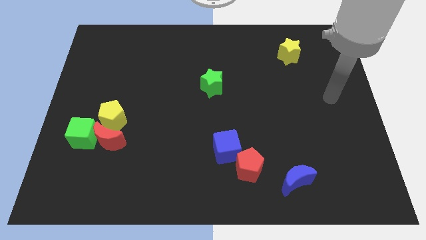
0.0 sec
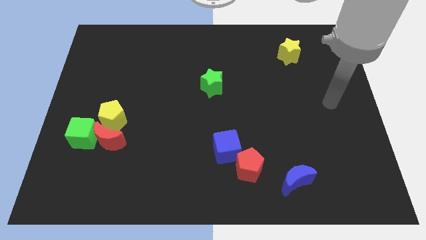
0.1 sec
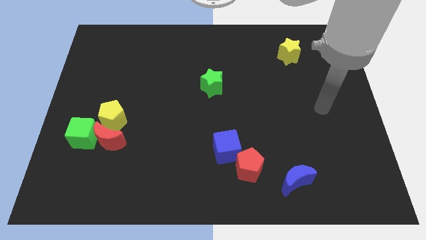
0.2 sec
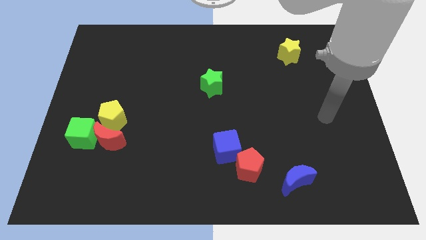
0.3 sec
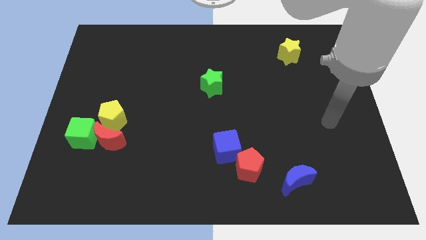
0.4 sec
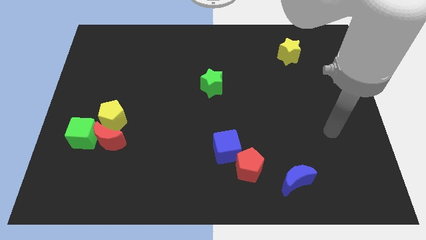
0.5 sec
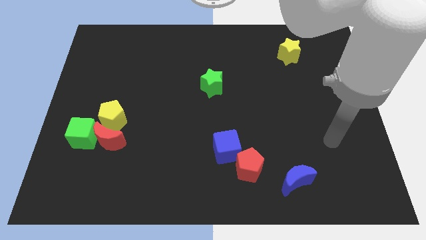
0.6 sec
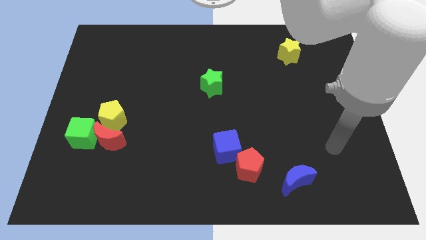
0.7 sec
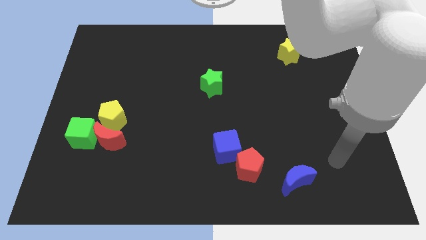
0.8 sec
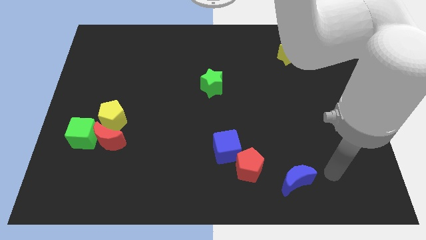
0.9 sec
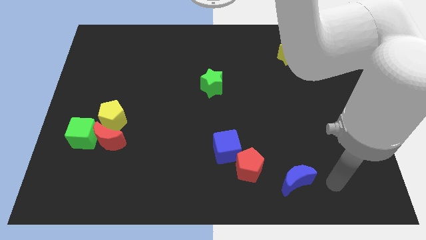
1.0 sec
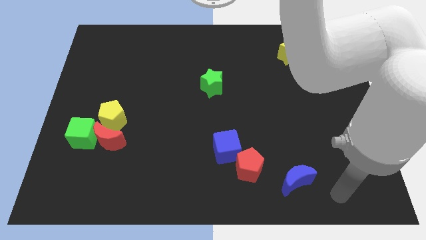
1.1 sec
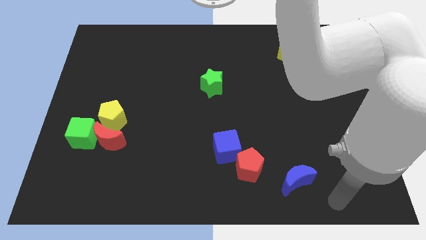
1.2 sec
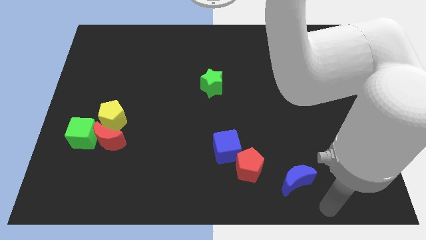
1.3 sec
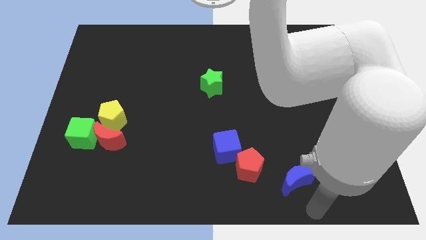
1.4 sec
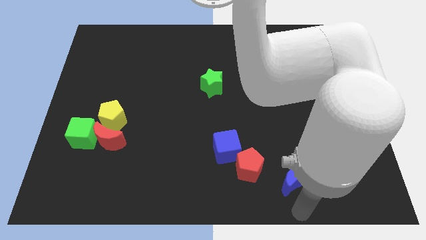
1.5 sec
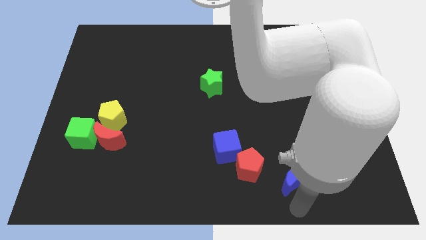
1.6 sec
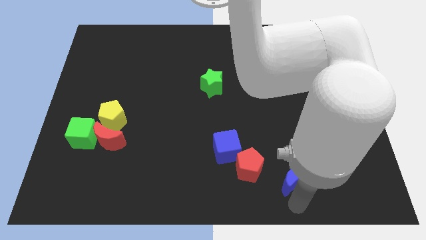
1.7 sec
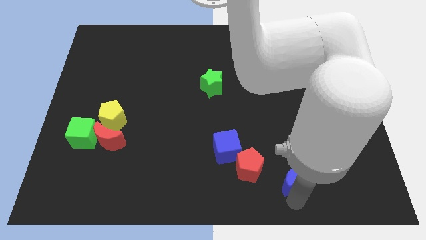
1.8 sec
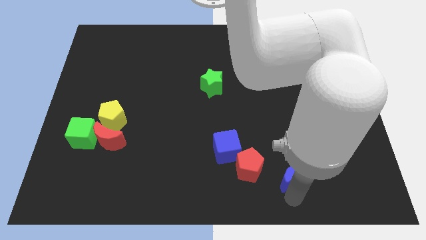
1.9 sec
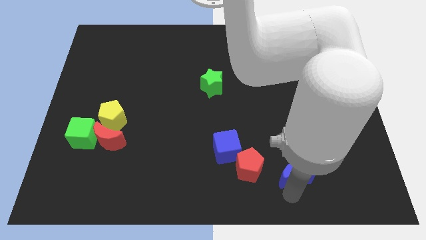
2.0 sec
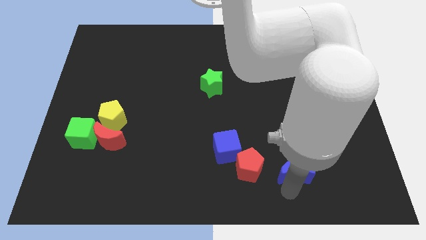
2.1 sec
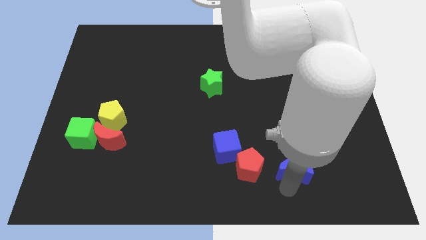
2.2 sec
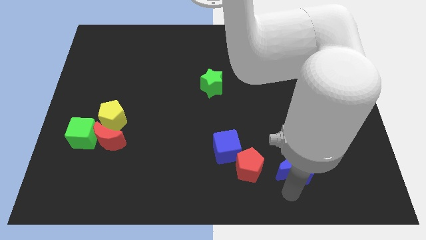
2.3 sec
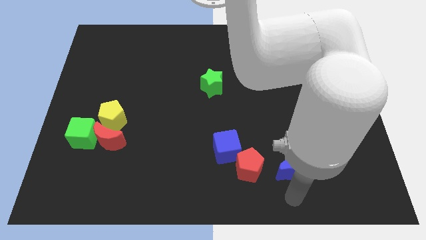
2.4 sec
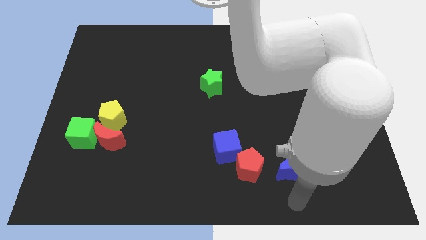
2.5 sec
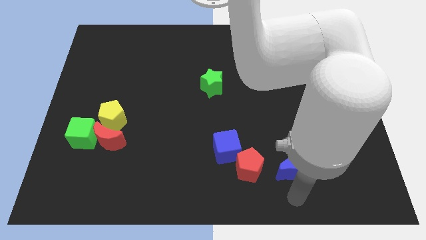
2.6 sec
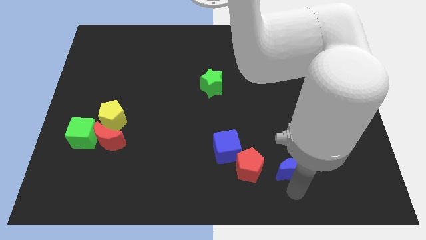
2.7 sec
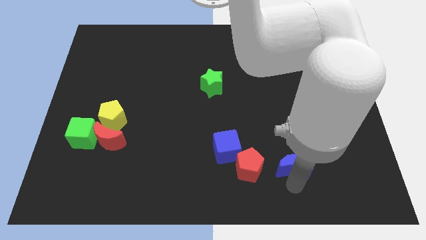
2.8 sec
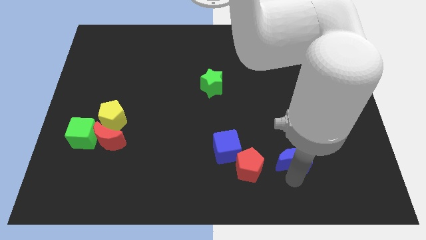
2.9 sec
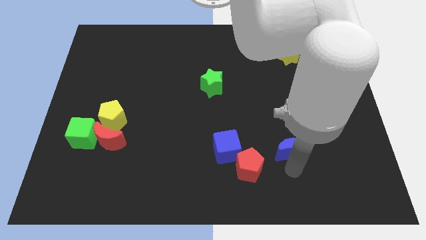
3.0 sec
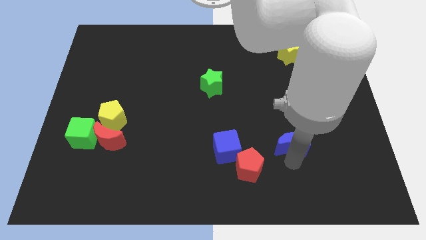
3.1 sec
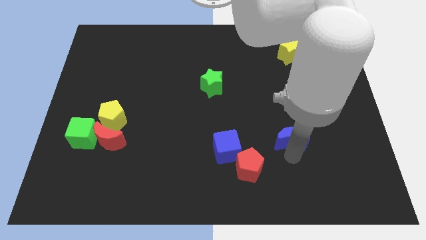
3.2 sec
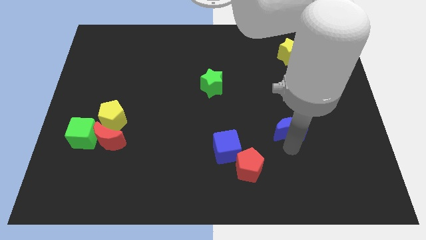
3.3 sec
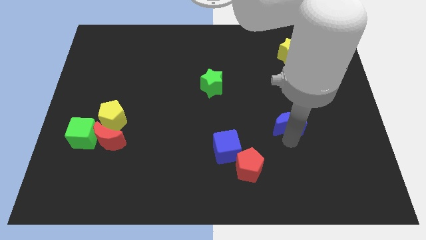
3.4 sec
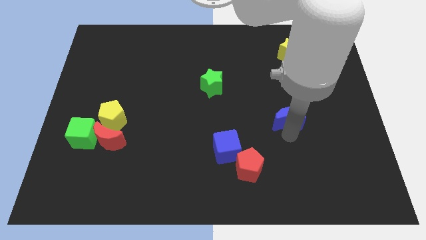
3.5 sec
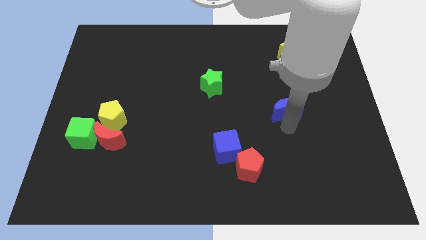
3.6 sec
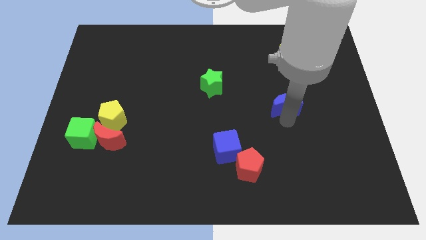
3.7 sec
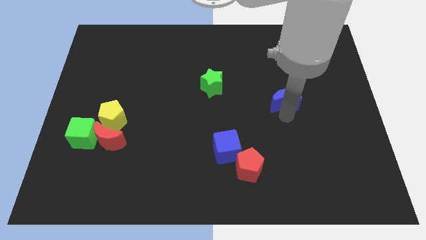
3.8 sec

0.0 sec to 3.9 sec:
move the blue moon upwards
